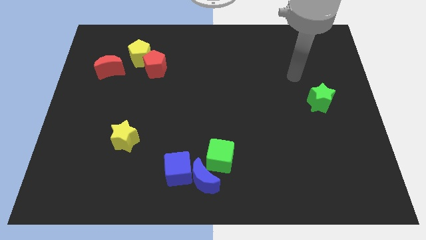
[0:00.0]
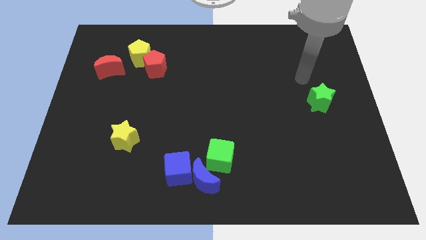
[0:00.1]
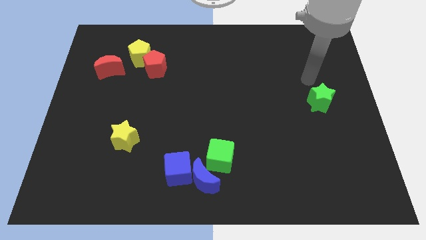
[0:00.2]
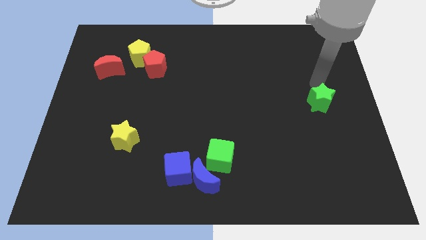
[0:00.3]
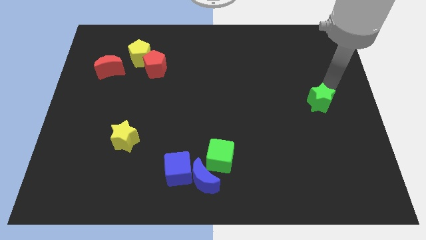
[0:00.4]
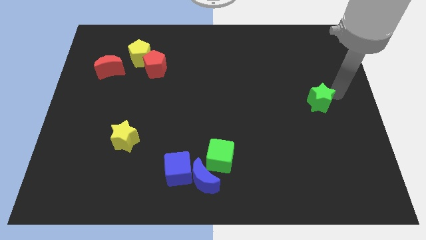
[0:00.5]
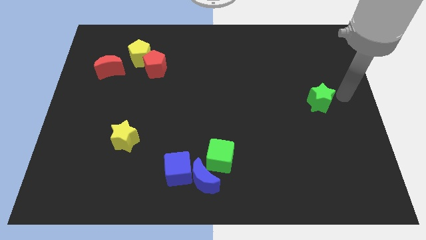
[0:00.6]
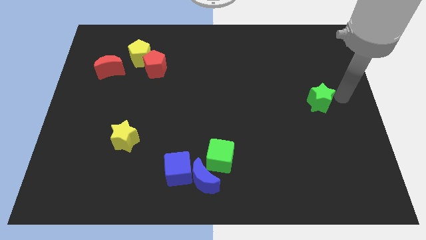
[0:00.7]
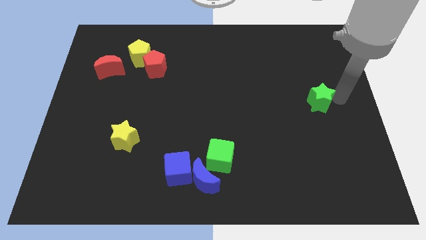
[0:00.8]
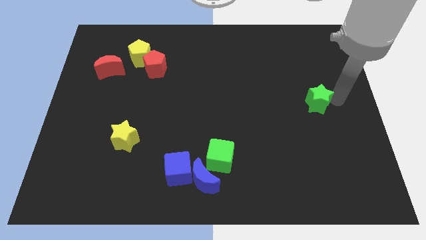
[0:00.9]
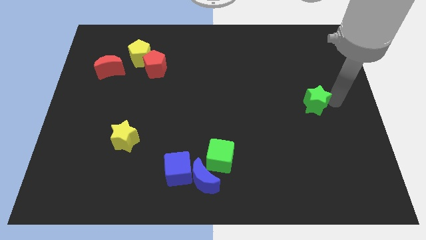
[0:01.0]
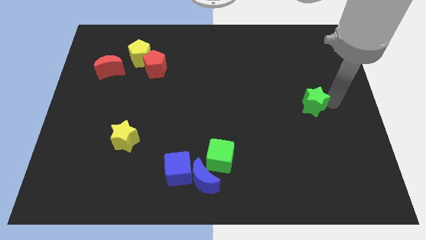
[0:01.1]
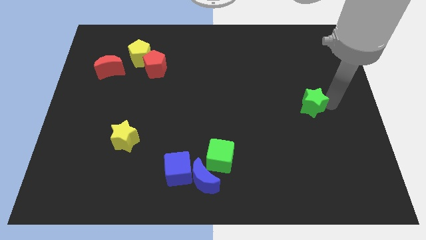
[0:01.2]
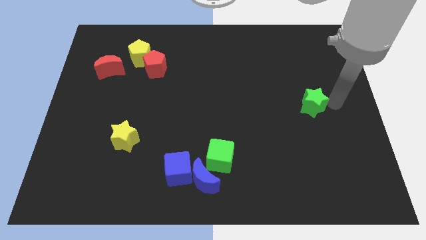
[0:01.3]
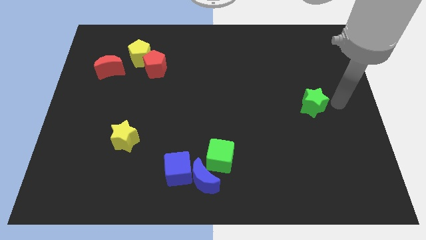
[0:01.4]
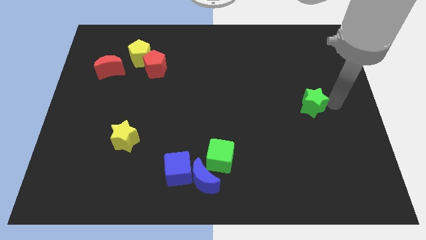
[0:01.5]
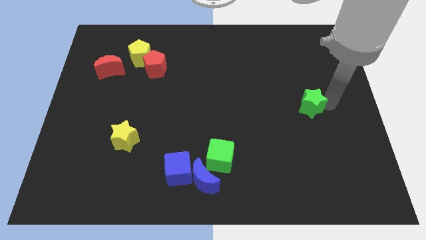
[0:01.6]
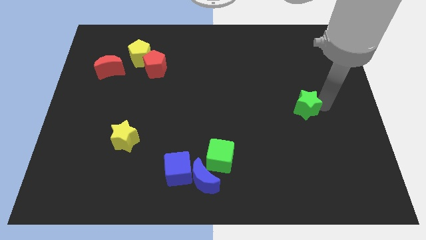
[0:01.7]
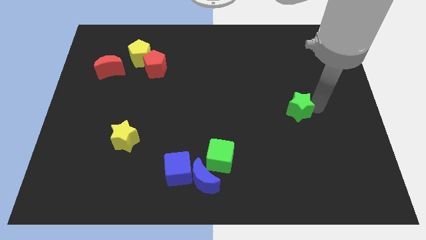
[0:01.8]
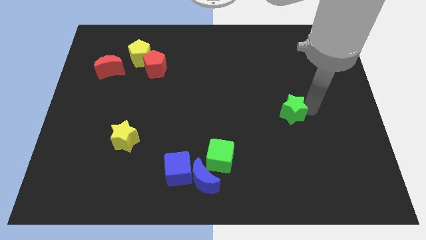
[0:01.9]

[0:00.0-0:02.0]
push the green star somewhat to the left

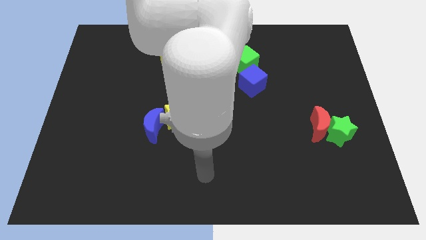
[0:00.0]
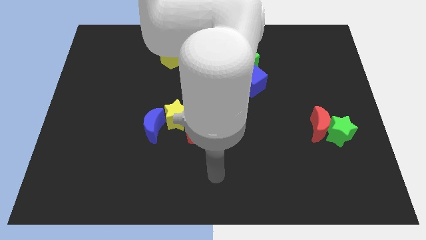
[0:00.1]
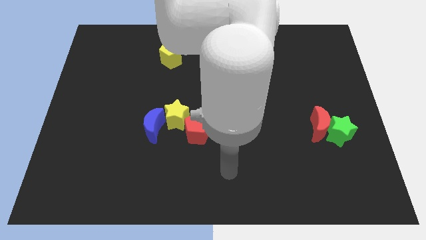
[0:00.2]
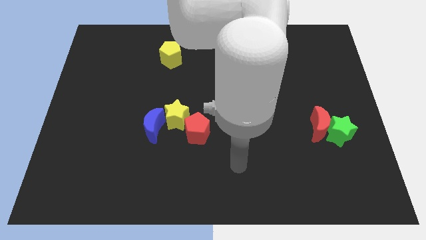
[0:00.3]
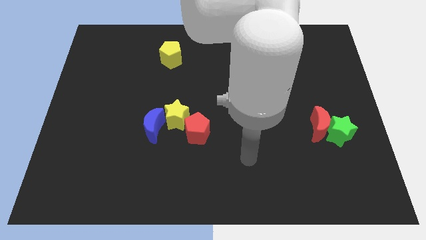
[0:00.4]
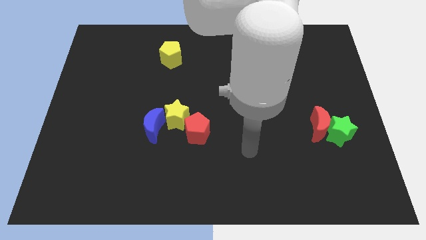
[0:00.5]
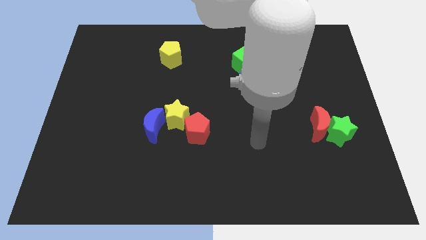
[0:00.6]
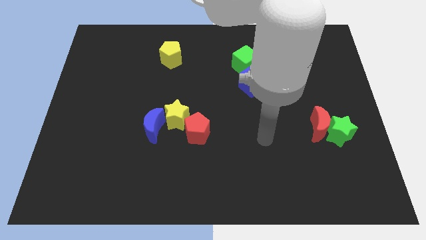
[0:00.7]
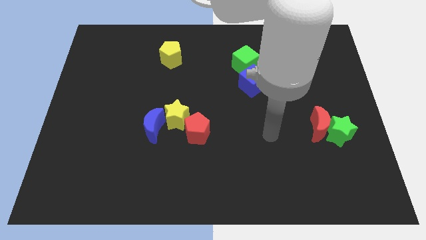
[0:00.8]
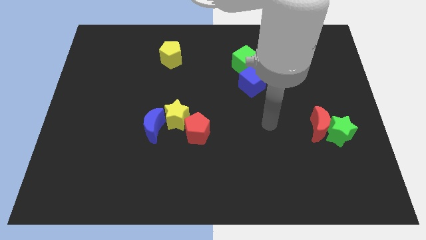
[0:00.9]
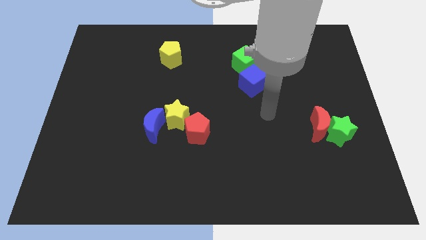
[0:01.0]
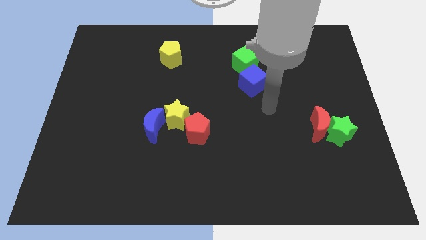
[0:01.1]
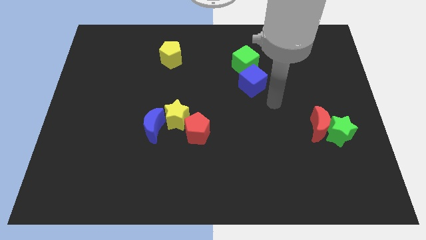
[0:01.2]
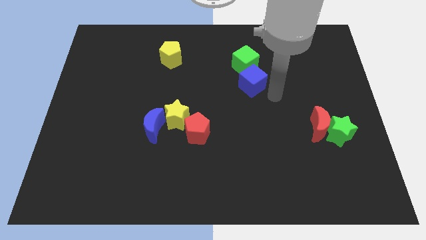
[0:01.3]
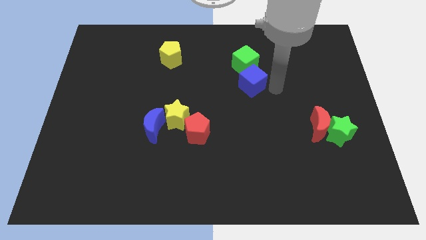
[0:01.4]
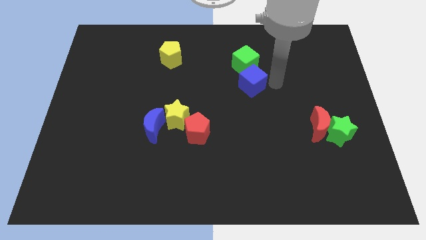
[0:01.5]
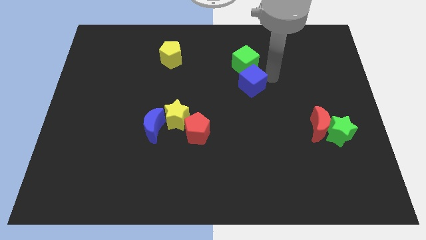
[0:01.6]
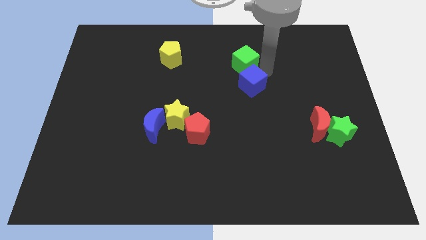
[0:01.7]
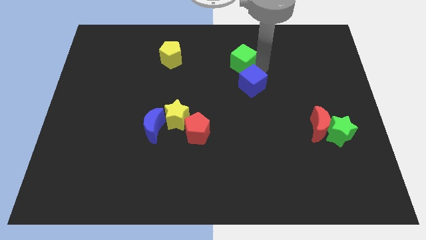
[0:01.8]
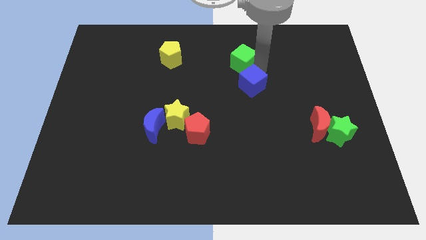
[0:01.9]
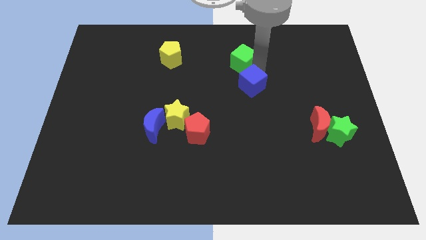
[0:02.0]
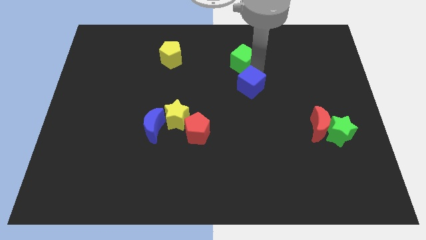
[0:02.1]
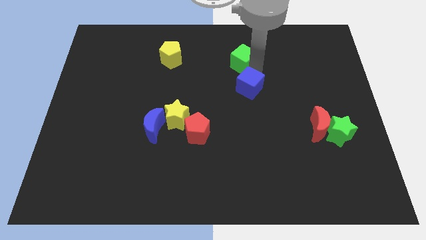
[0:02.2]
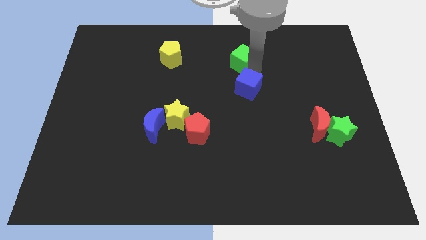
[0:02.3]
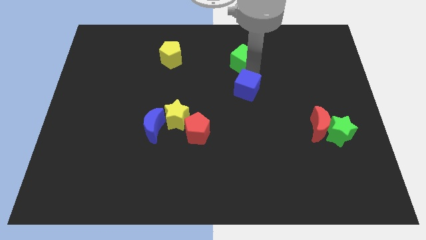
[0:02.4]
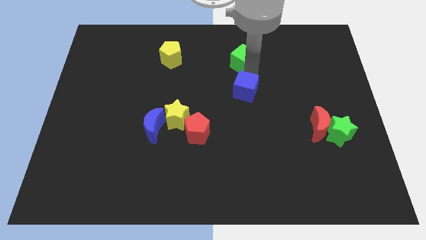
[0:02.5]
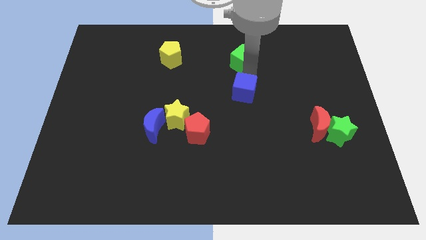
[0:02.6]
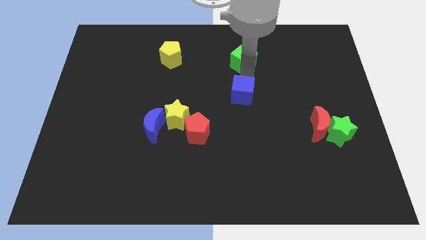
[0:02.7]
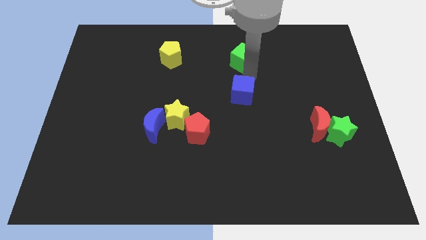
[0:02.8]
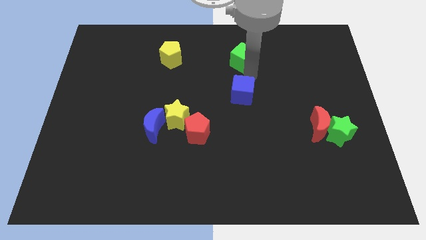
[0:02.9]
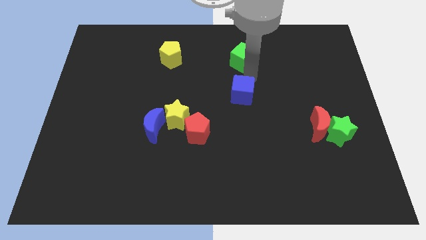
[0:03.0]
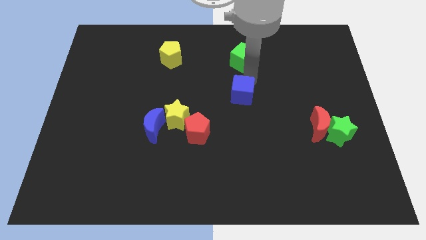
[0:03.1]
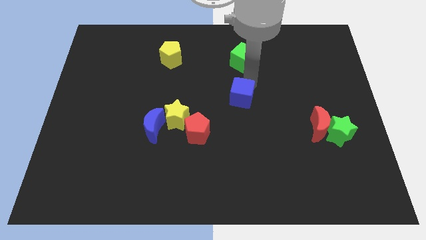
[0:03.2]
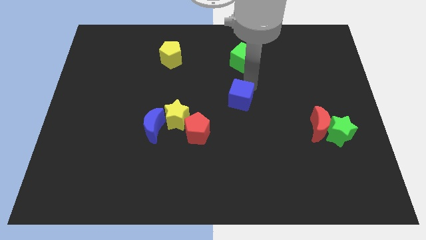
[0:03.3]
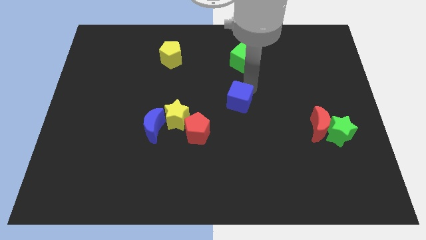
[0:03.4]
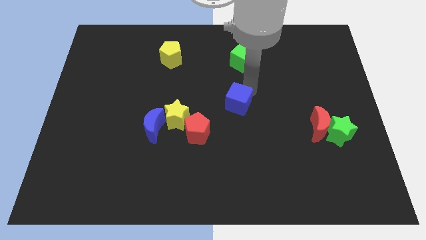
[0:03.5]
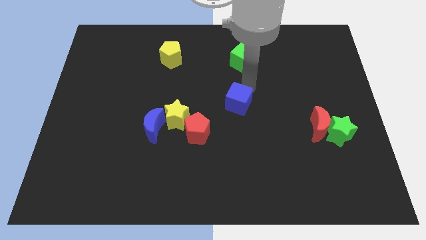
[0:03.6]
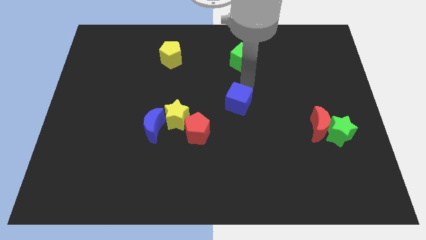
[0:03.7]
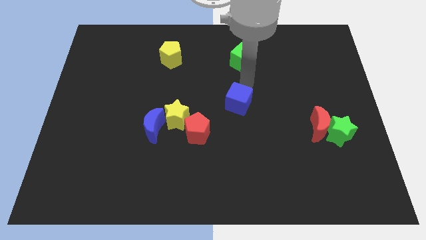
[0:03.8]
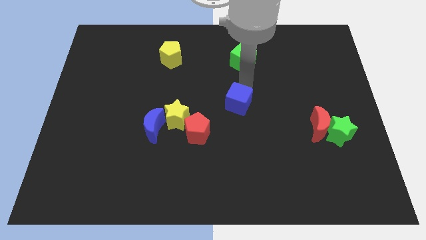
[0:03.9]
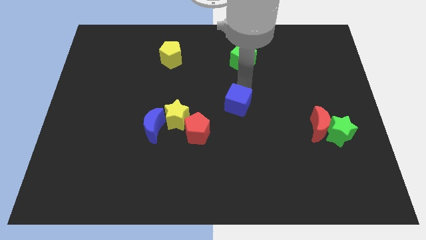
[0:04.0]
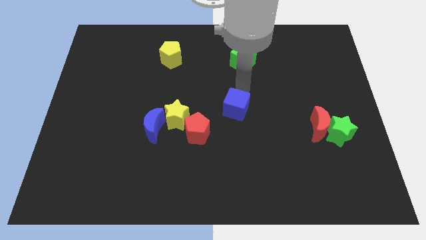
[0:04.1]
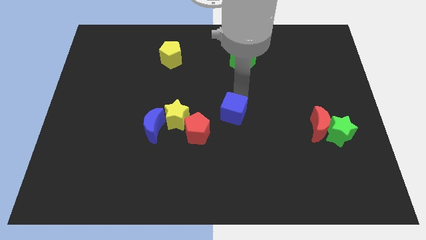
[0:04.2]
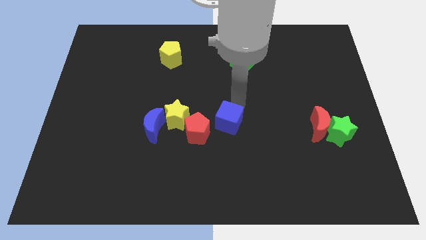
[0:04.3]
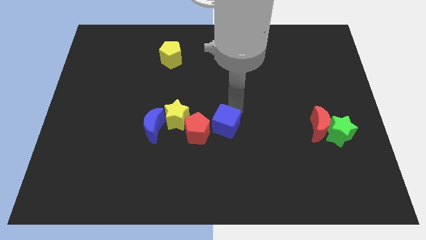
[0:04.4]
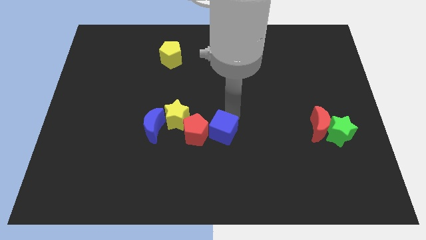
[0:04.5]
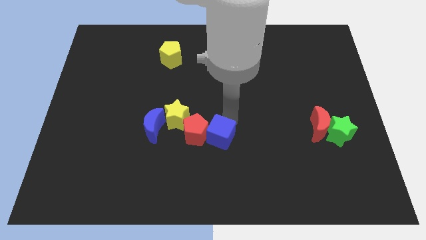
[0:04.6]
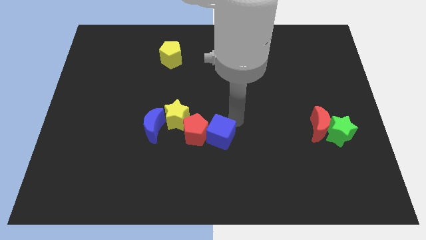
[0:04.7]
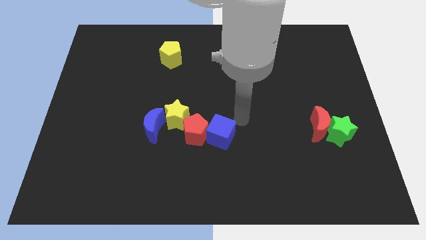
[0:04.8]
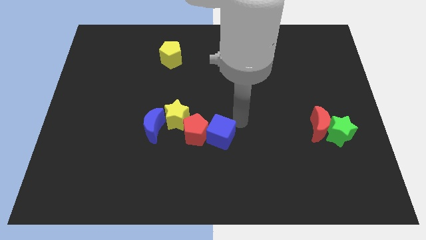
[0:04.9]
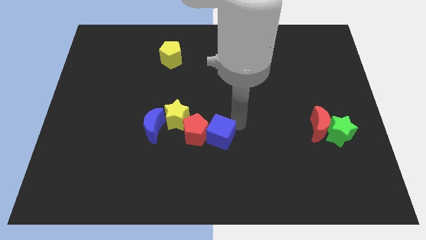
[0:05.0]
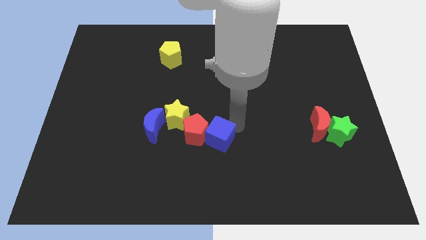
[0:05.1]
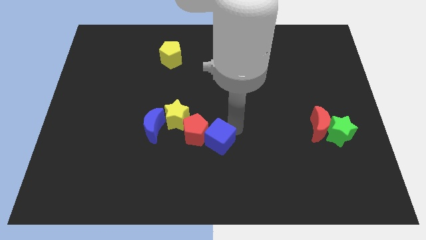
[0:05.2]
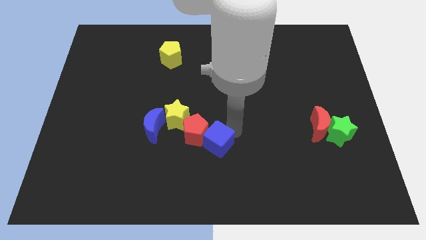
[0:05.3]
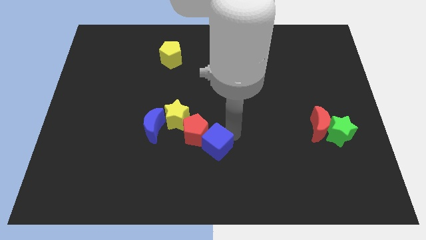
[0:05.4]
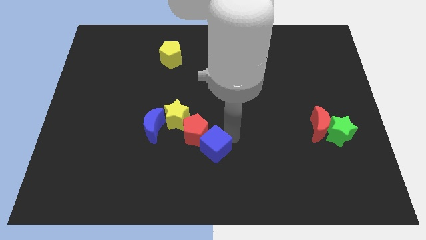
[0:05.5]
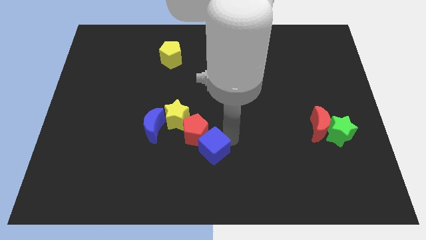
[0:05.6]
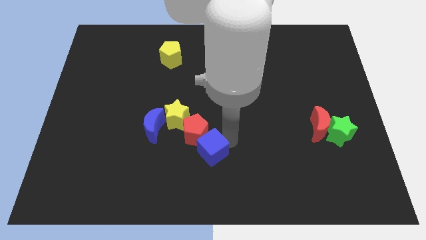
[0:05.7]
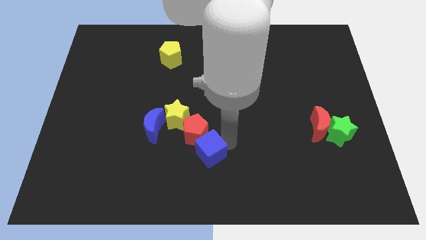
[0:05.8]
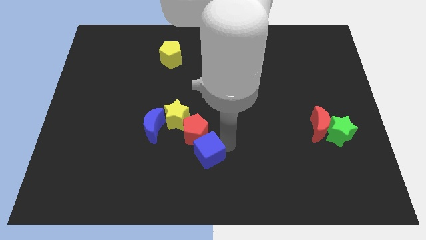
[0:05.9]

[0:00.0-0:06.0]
slide the blue cube down and then to the left

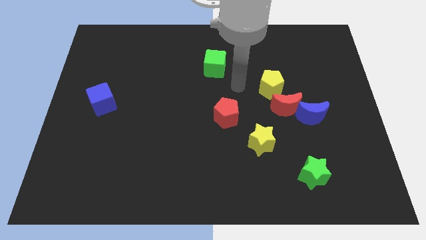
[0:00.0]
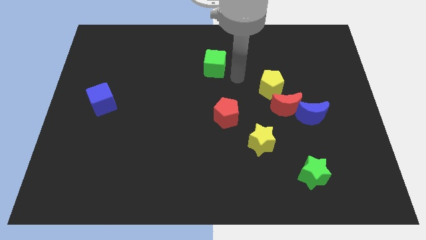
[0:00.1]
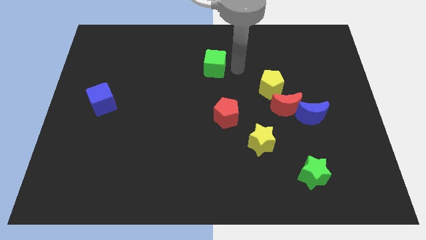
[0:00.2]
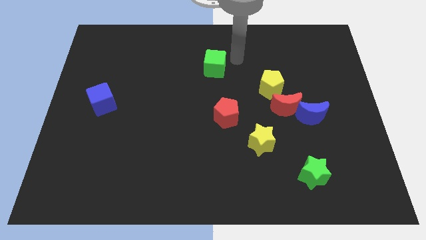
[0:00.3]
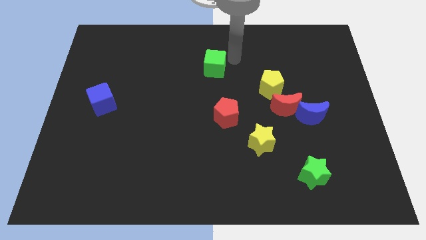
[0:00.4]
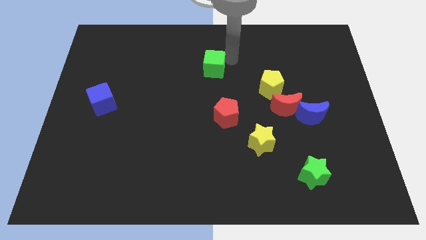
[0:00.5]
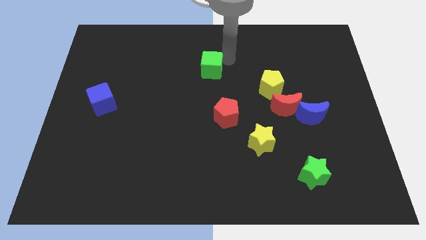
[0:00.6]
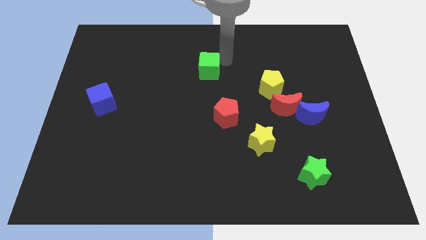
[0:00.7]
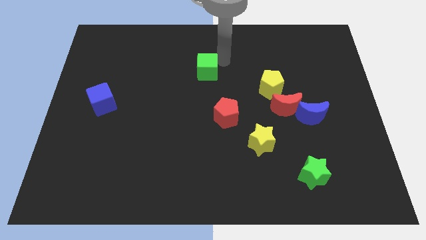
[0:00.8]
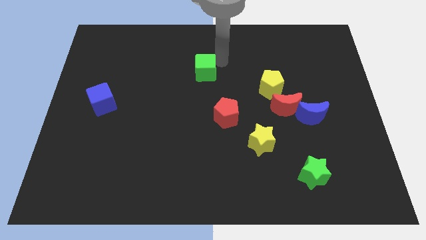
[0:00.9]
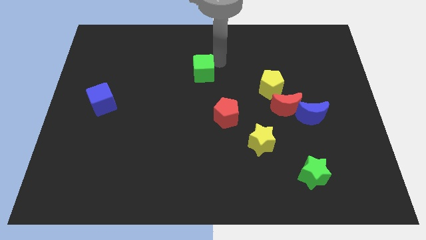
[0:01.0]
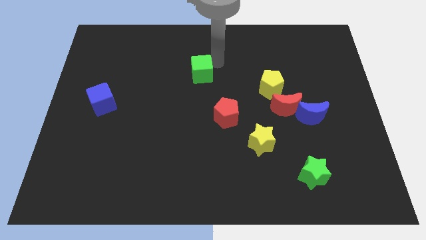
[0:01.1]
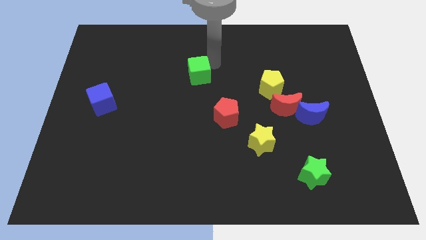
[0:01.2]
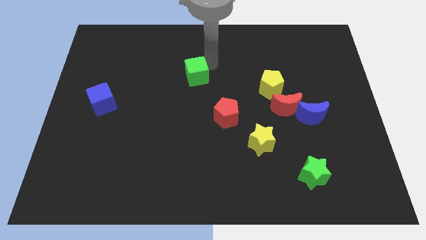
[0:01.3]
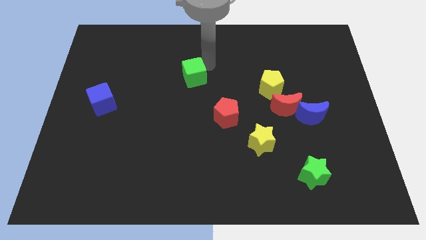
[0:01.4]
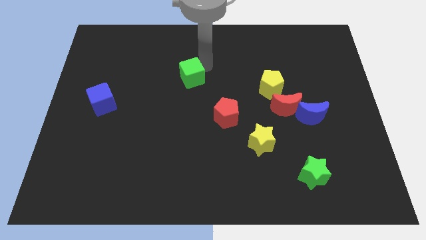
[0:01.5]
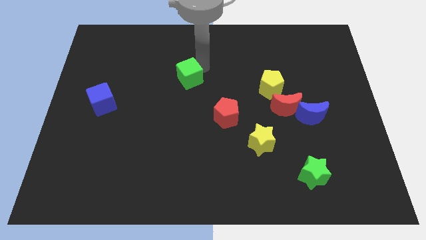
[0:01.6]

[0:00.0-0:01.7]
push the green cube downwards and then left a little bit
